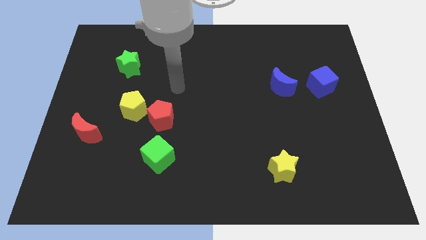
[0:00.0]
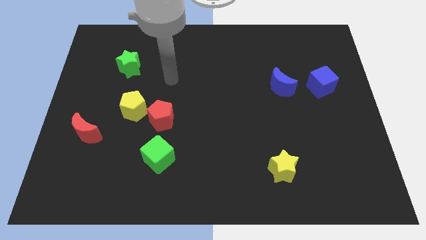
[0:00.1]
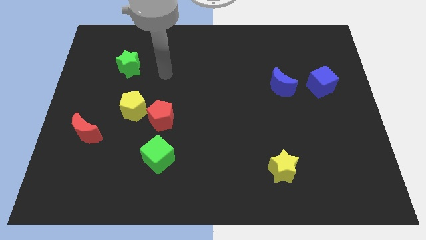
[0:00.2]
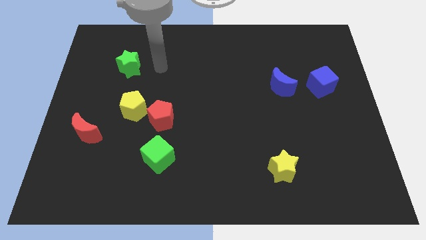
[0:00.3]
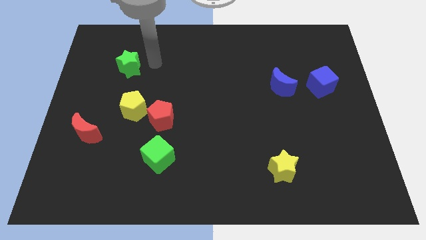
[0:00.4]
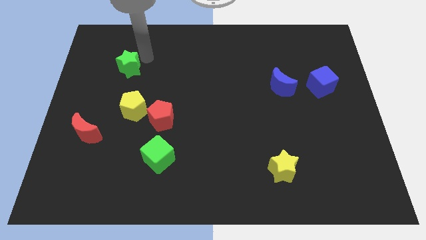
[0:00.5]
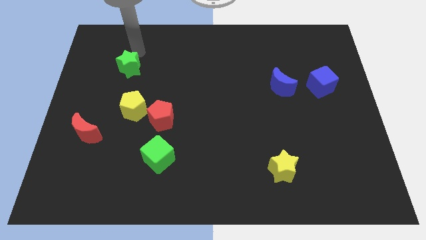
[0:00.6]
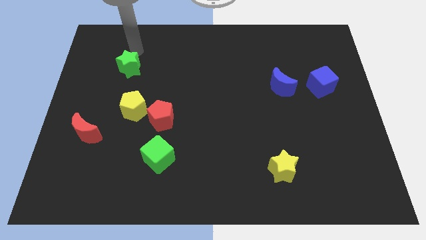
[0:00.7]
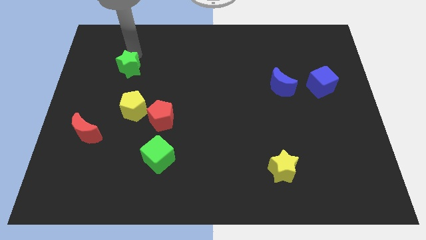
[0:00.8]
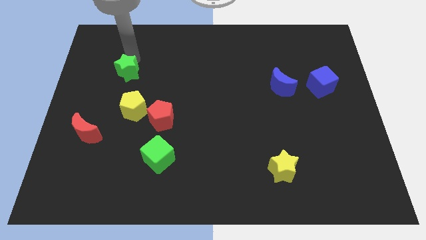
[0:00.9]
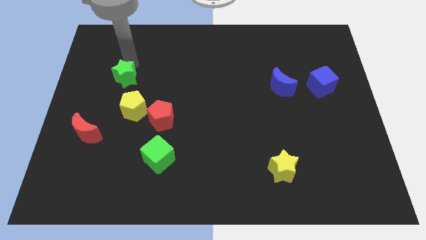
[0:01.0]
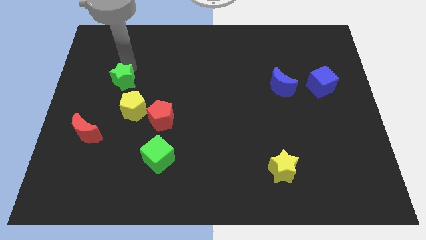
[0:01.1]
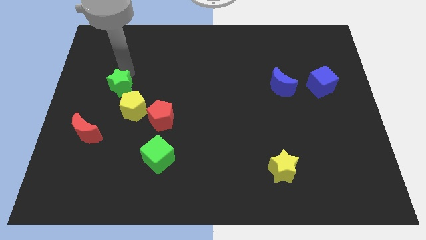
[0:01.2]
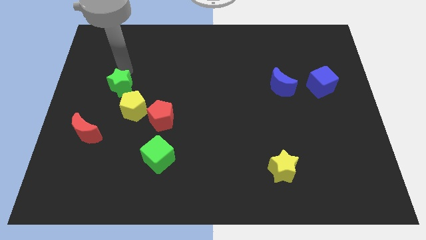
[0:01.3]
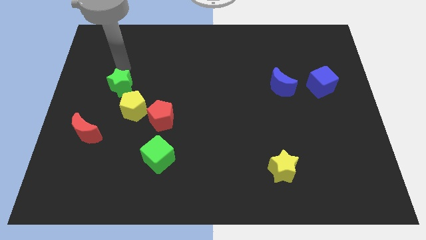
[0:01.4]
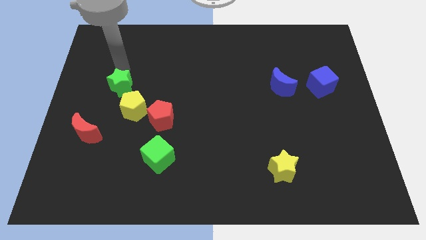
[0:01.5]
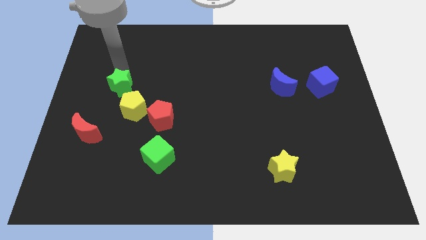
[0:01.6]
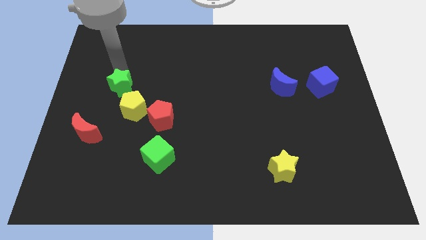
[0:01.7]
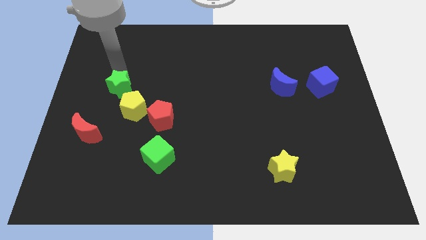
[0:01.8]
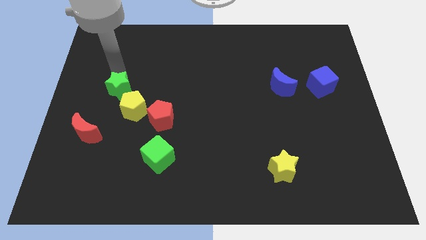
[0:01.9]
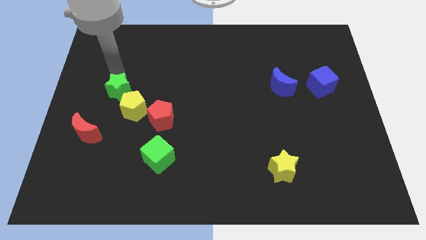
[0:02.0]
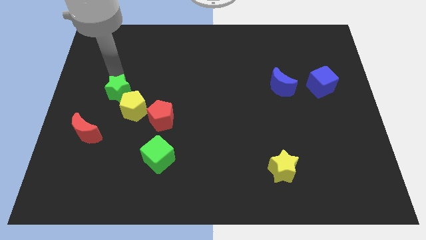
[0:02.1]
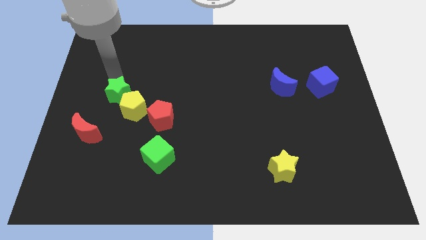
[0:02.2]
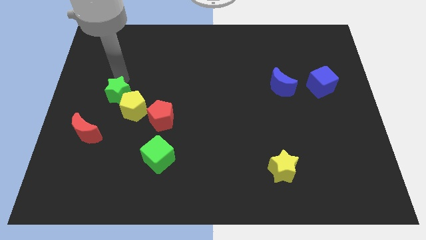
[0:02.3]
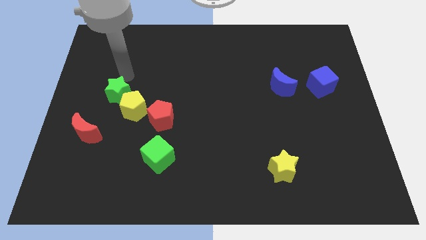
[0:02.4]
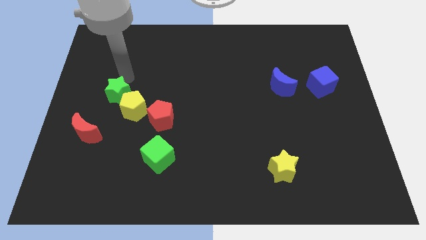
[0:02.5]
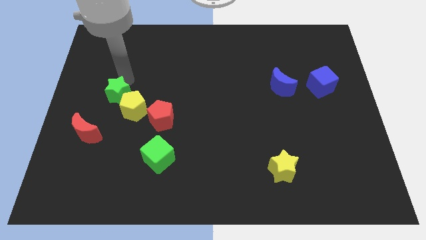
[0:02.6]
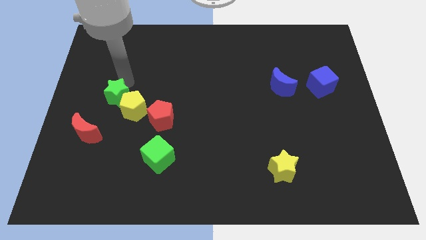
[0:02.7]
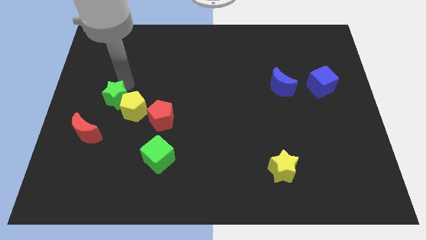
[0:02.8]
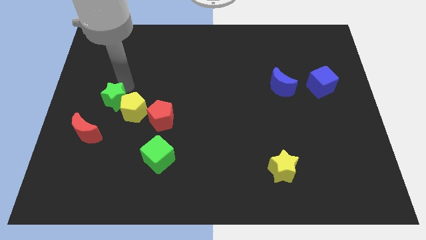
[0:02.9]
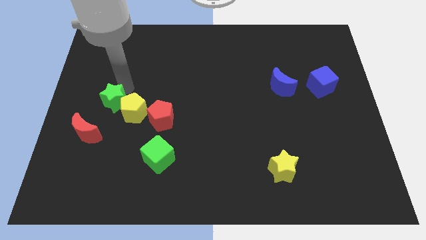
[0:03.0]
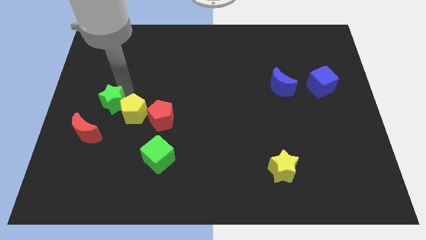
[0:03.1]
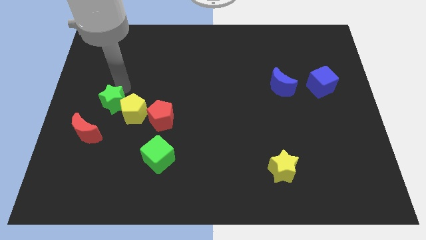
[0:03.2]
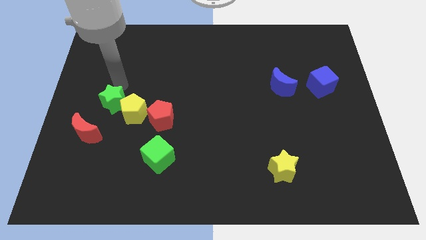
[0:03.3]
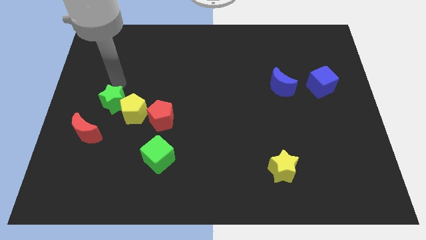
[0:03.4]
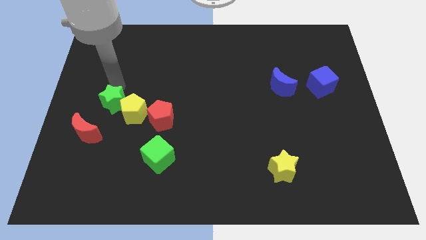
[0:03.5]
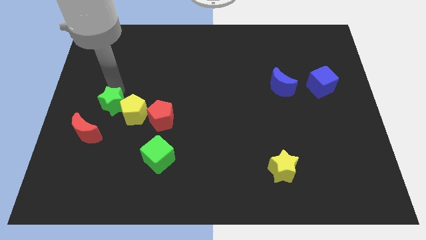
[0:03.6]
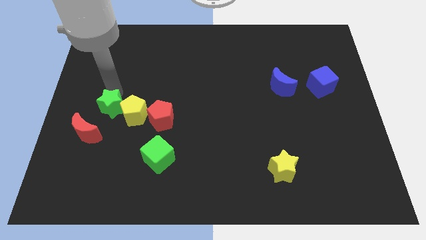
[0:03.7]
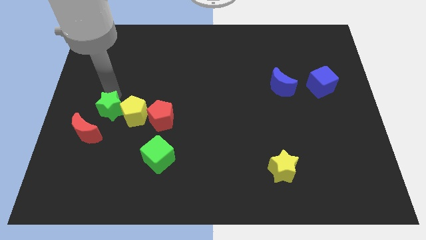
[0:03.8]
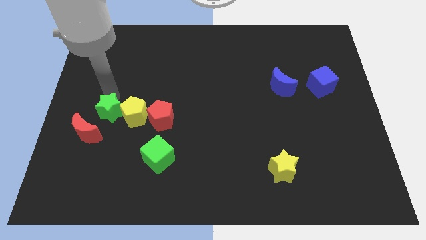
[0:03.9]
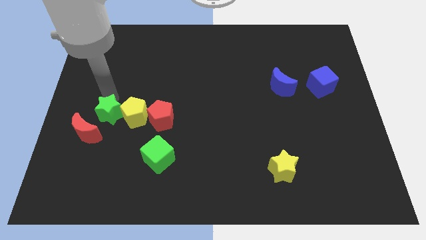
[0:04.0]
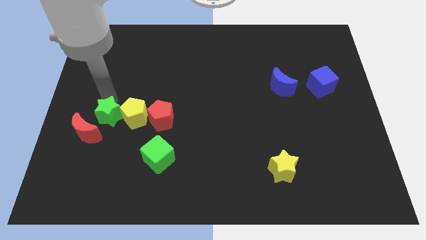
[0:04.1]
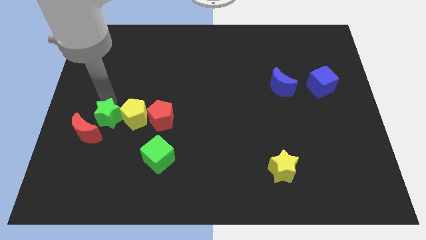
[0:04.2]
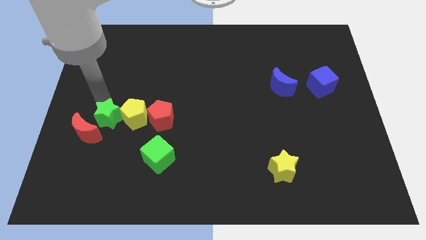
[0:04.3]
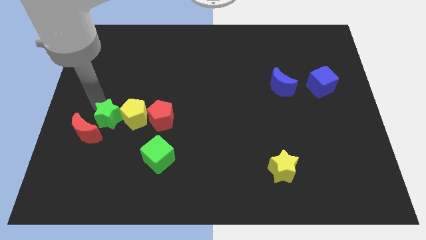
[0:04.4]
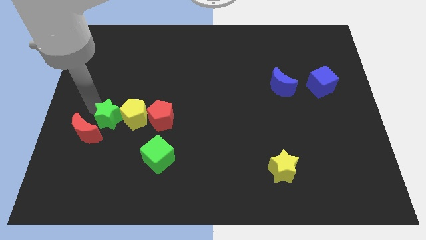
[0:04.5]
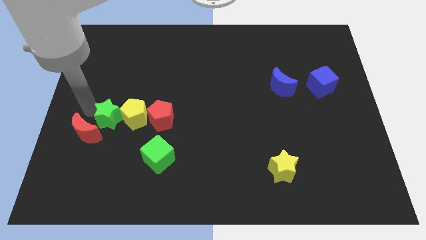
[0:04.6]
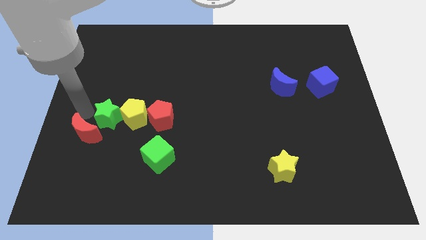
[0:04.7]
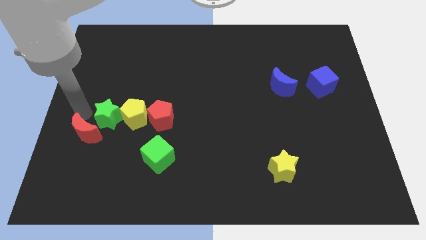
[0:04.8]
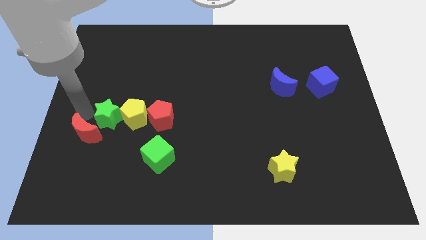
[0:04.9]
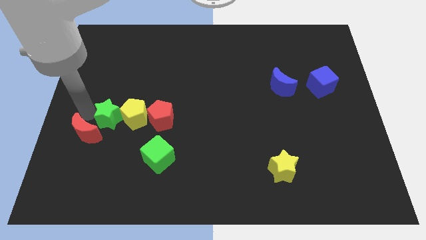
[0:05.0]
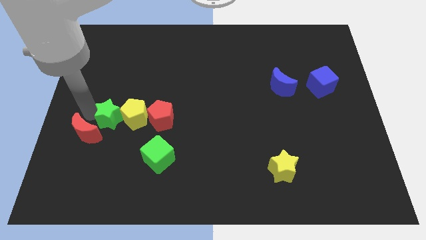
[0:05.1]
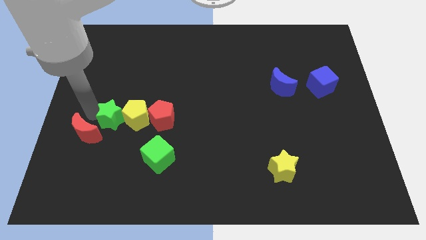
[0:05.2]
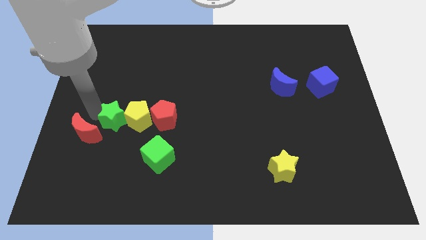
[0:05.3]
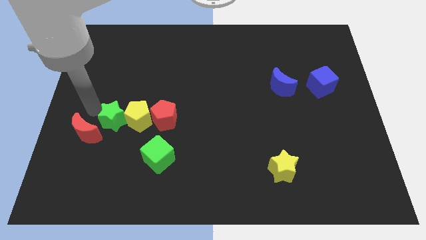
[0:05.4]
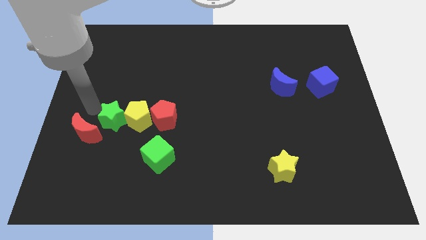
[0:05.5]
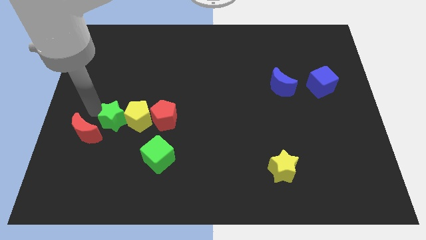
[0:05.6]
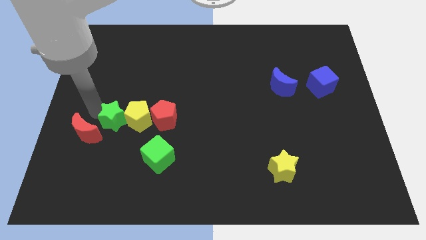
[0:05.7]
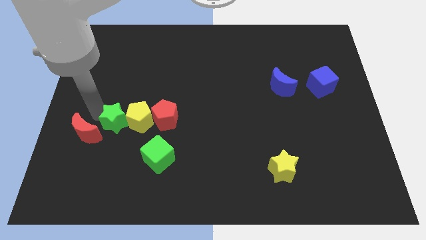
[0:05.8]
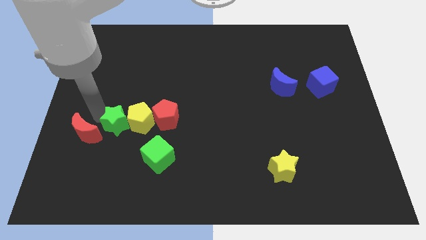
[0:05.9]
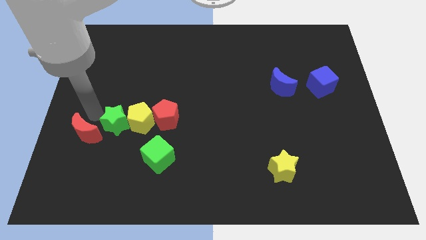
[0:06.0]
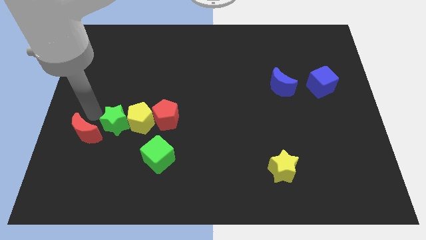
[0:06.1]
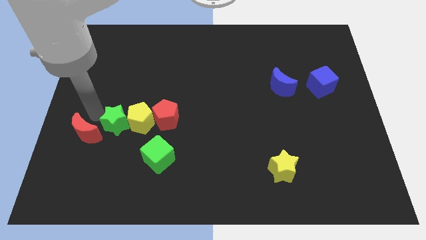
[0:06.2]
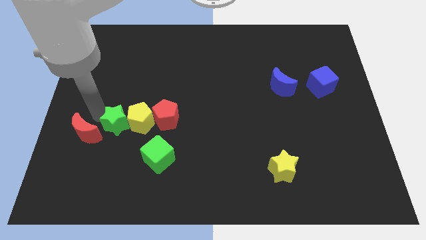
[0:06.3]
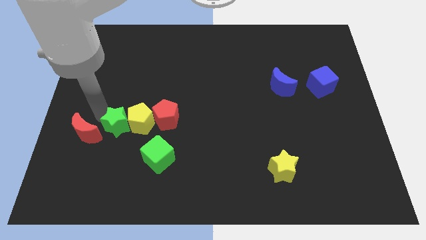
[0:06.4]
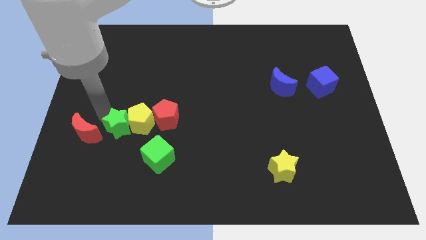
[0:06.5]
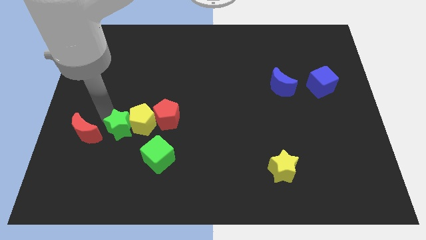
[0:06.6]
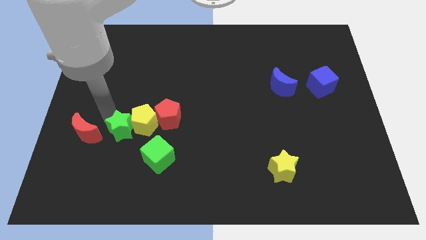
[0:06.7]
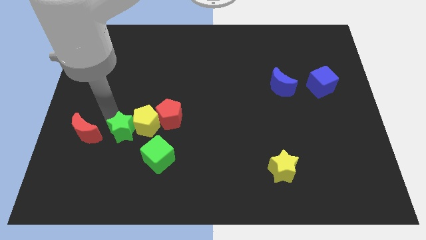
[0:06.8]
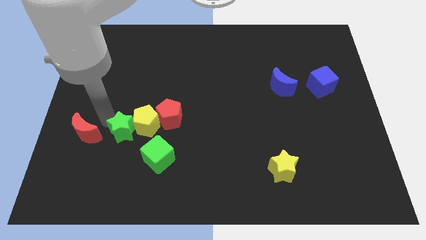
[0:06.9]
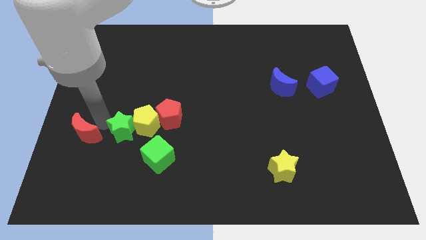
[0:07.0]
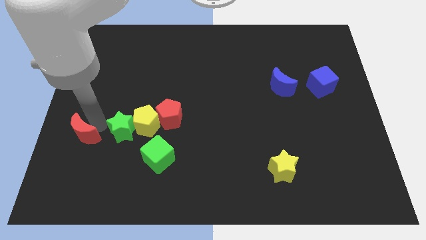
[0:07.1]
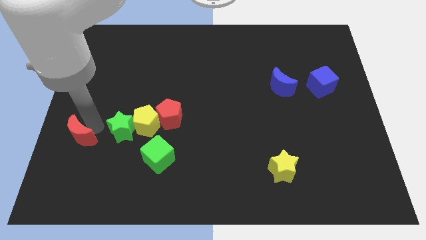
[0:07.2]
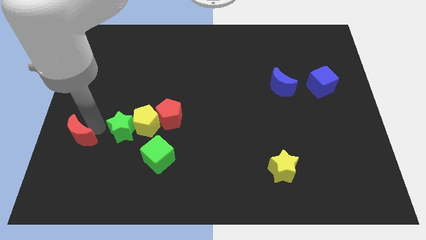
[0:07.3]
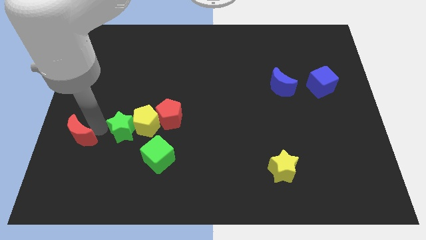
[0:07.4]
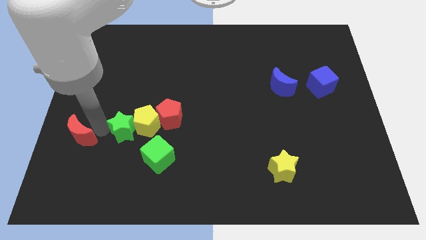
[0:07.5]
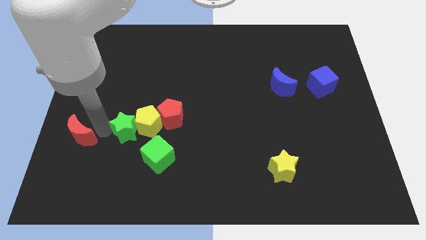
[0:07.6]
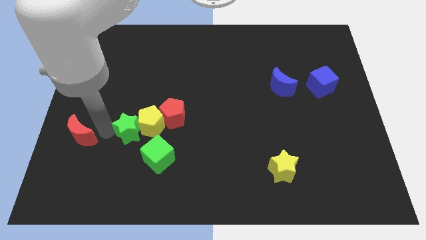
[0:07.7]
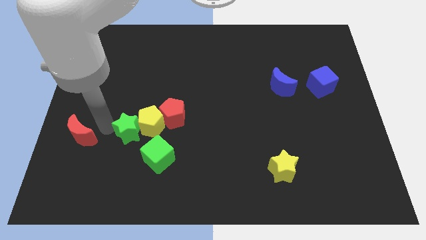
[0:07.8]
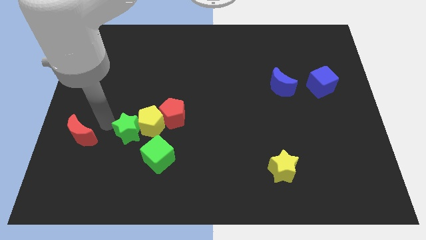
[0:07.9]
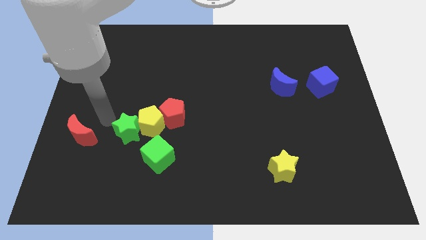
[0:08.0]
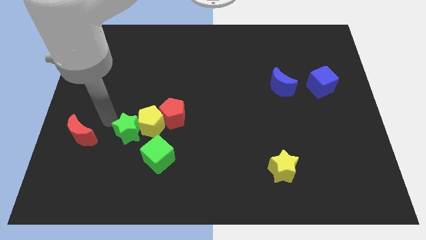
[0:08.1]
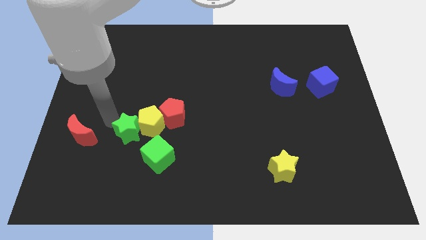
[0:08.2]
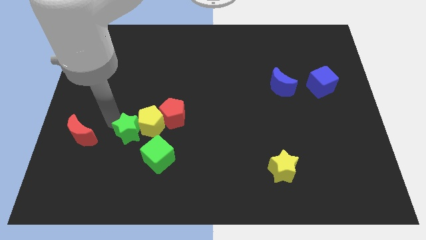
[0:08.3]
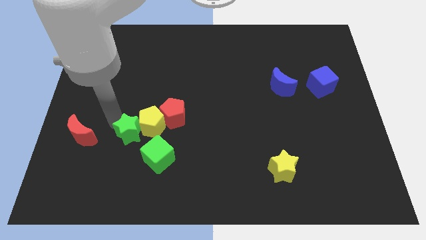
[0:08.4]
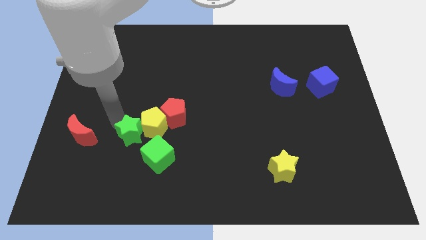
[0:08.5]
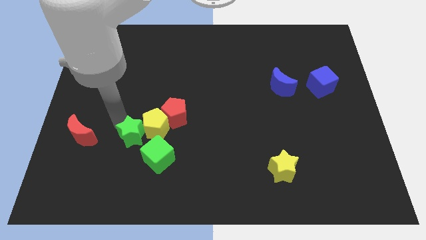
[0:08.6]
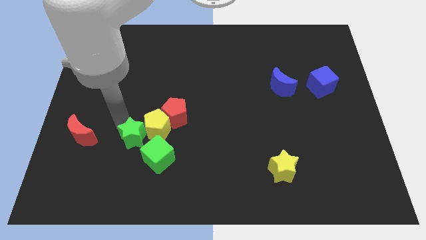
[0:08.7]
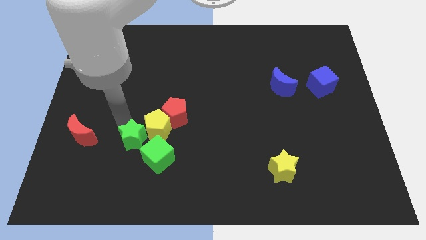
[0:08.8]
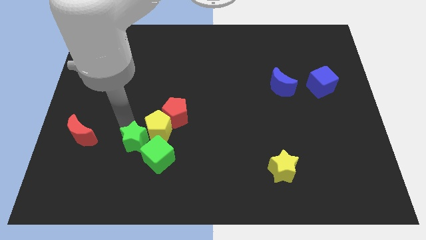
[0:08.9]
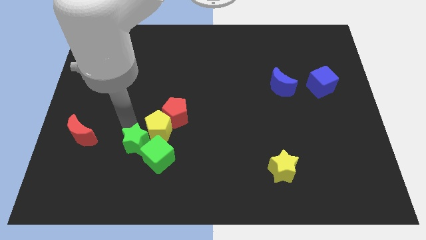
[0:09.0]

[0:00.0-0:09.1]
move the green star to the green cube
